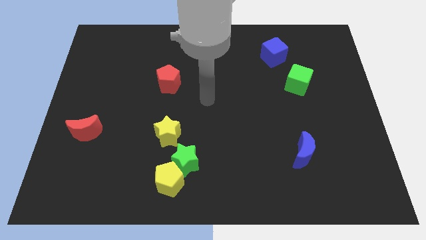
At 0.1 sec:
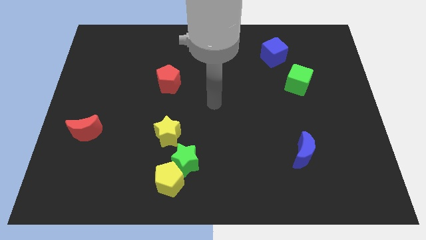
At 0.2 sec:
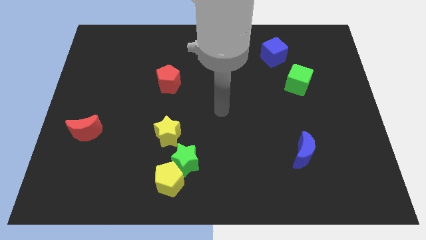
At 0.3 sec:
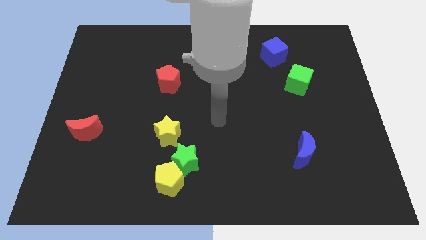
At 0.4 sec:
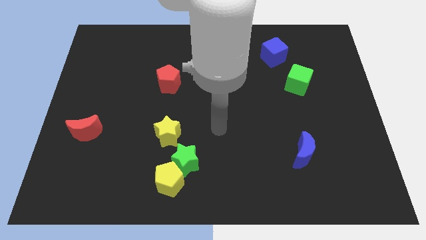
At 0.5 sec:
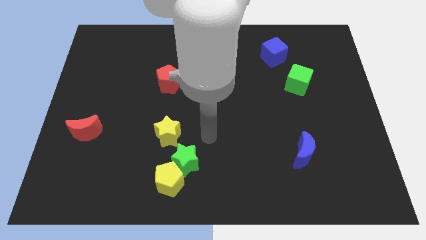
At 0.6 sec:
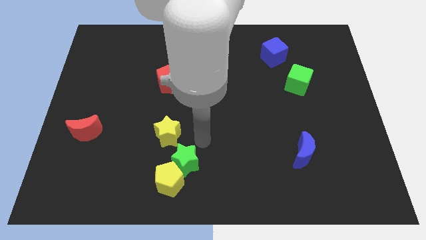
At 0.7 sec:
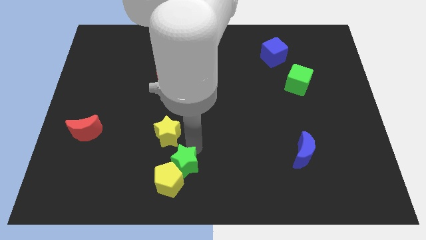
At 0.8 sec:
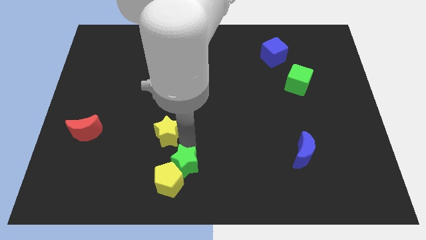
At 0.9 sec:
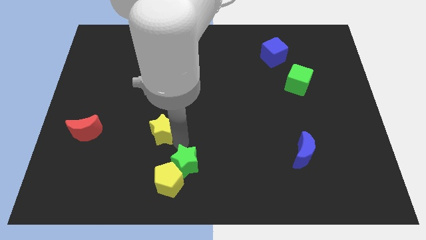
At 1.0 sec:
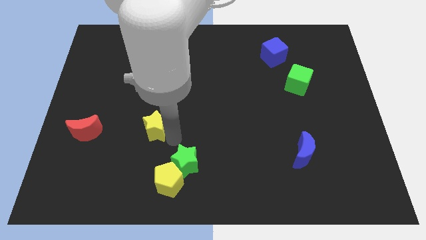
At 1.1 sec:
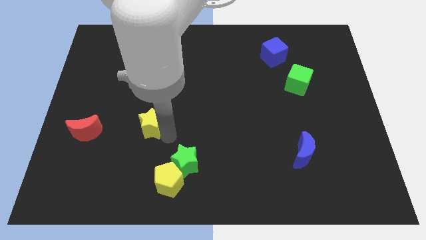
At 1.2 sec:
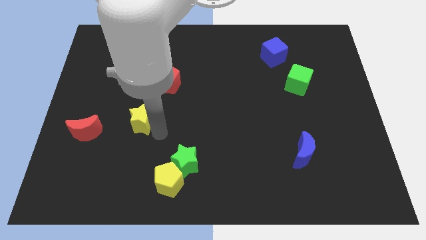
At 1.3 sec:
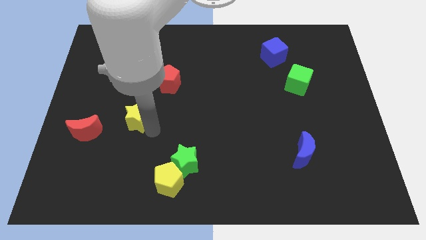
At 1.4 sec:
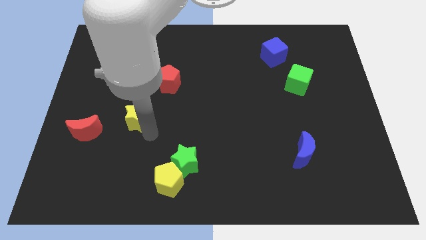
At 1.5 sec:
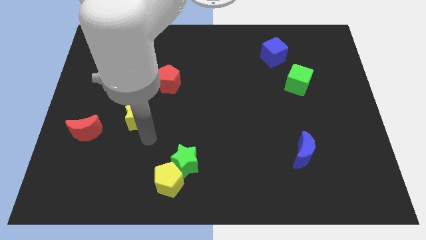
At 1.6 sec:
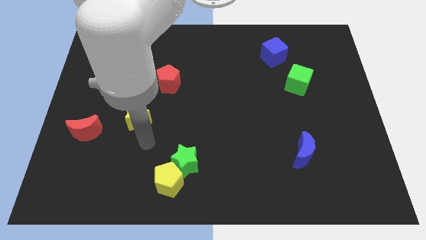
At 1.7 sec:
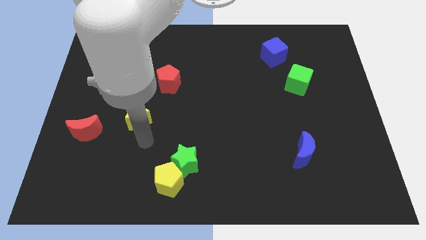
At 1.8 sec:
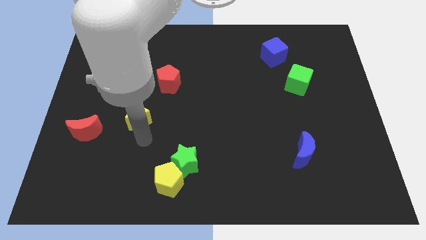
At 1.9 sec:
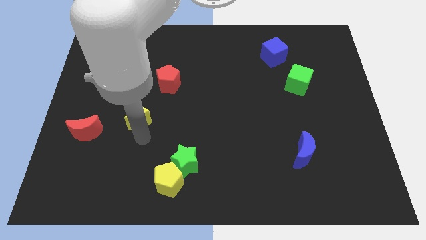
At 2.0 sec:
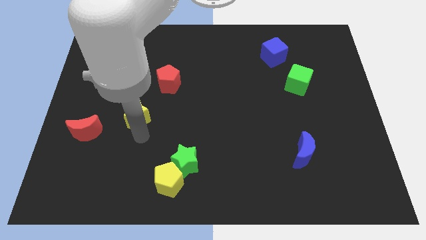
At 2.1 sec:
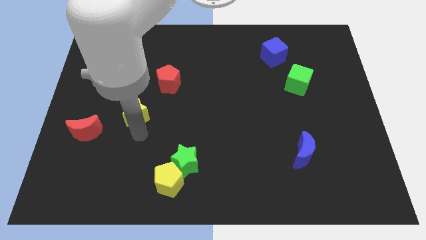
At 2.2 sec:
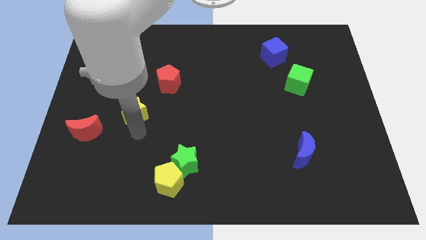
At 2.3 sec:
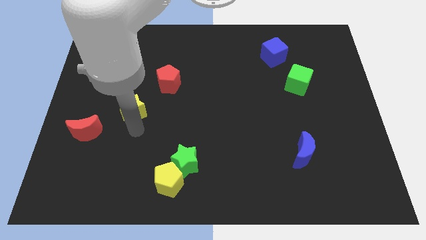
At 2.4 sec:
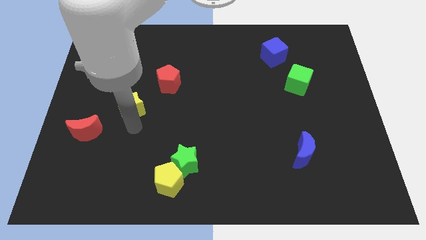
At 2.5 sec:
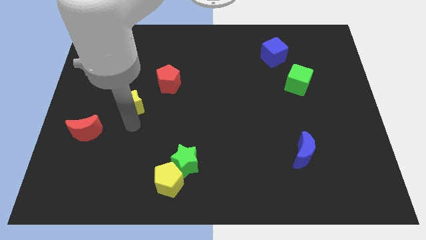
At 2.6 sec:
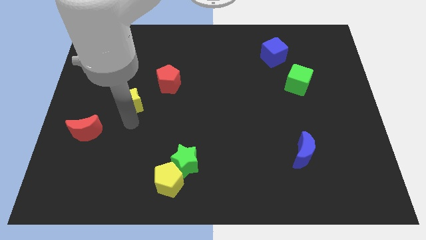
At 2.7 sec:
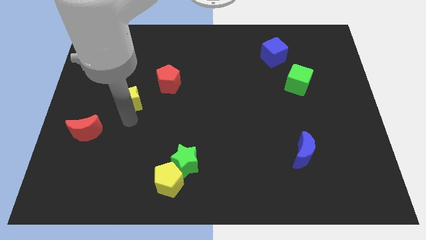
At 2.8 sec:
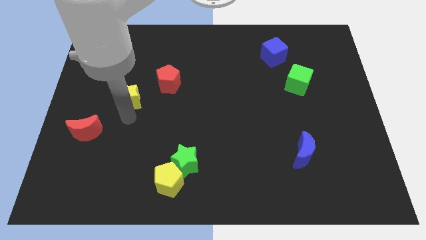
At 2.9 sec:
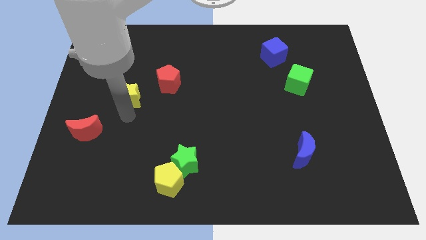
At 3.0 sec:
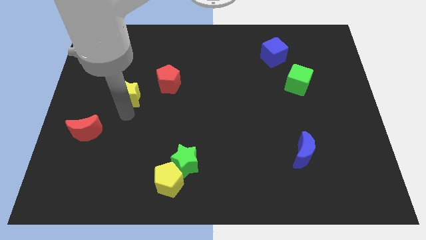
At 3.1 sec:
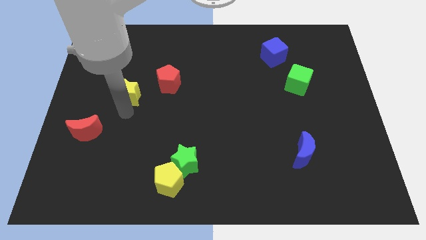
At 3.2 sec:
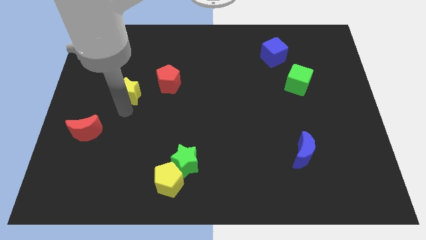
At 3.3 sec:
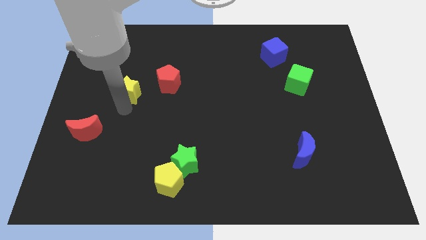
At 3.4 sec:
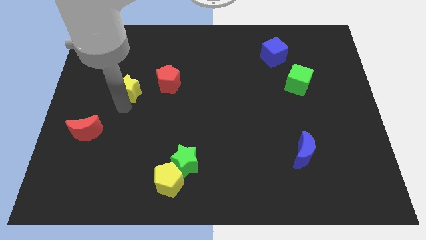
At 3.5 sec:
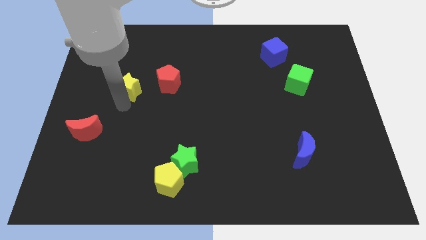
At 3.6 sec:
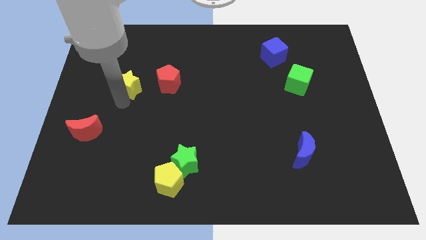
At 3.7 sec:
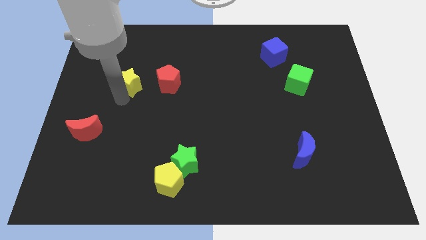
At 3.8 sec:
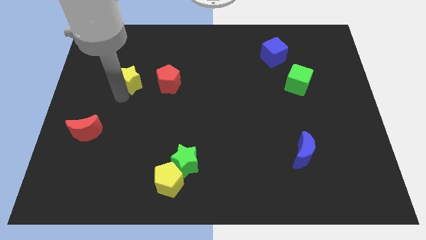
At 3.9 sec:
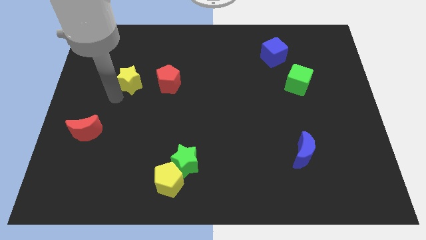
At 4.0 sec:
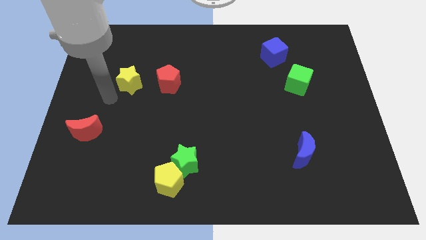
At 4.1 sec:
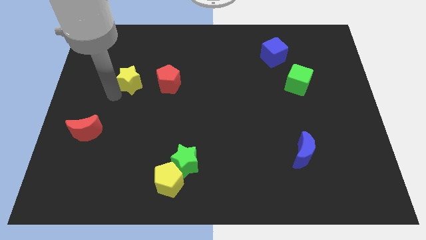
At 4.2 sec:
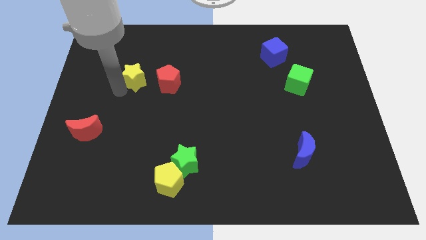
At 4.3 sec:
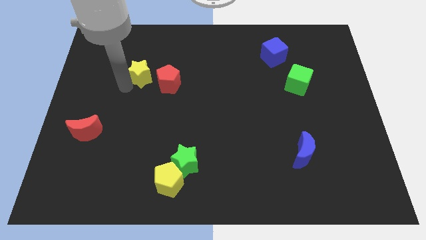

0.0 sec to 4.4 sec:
put the yellow star diagonally up and to the left of the red pentagon

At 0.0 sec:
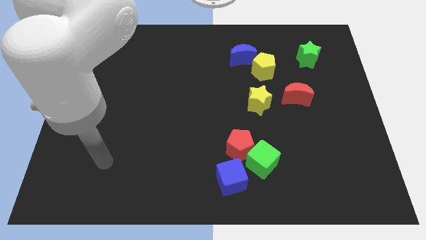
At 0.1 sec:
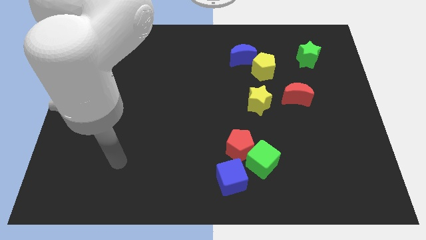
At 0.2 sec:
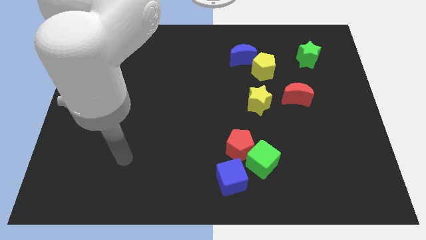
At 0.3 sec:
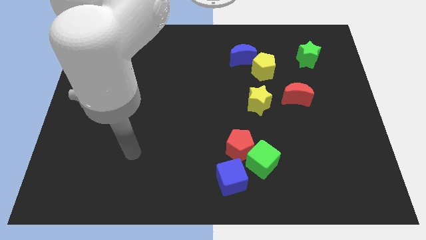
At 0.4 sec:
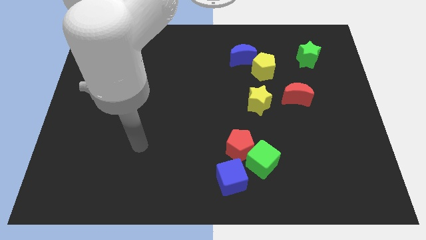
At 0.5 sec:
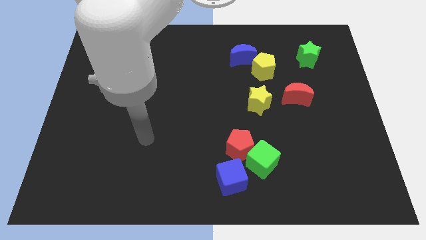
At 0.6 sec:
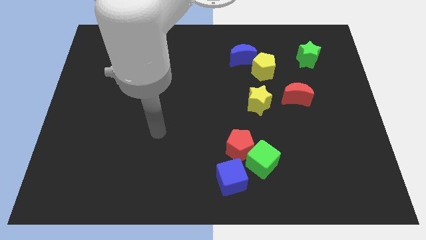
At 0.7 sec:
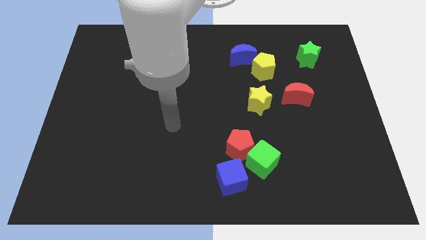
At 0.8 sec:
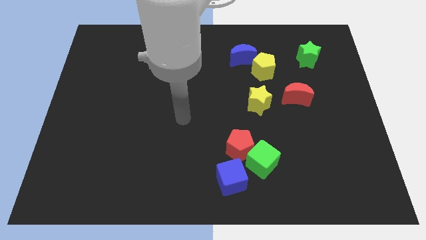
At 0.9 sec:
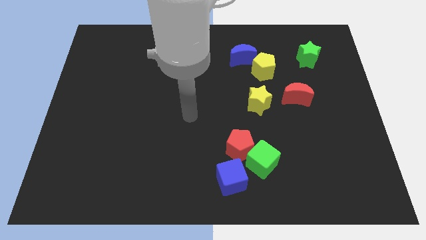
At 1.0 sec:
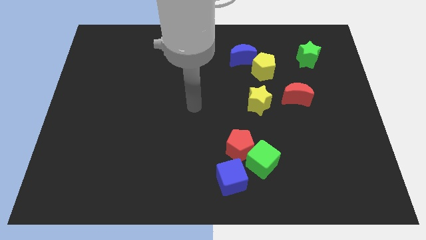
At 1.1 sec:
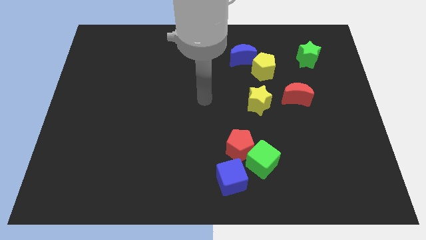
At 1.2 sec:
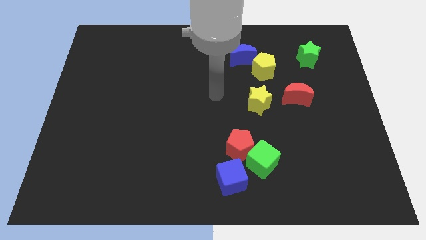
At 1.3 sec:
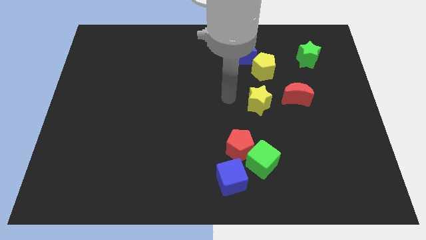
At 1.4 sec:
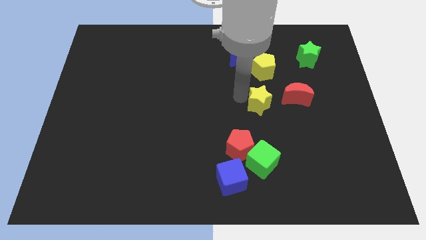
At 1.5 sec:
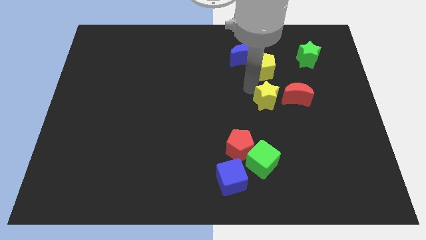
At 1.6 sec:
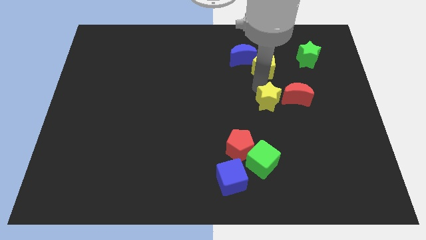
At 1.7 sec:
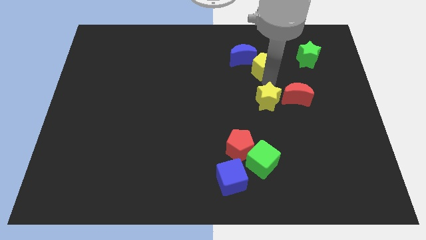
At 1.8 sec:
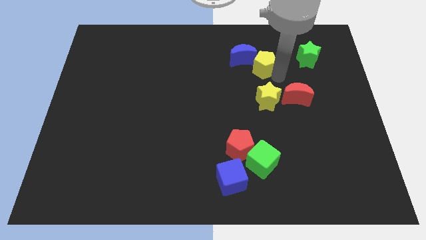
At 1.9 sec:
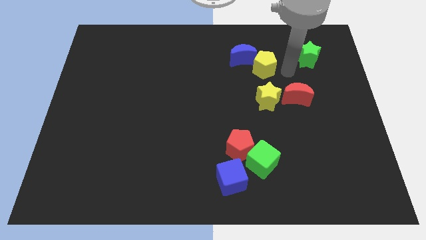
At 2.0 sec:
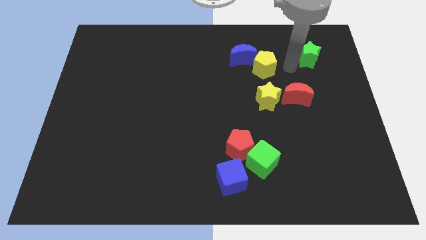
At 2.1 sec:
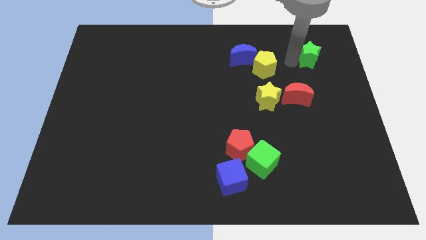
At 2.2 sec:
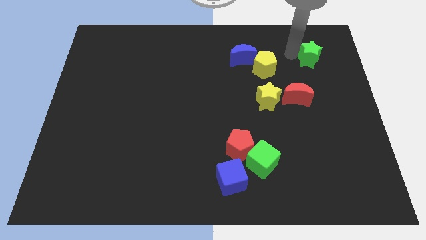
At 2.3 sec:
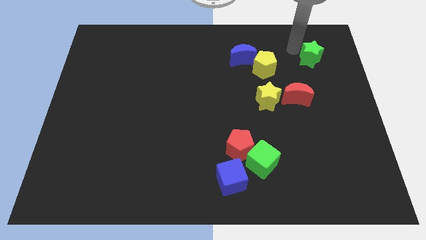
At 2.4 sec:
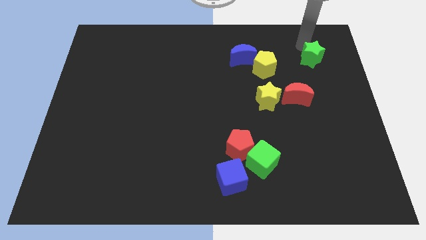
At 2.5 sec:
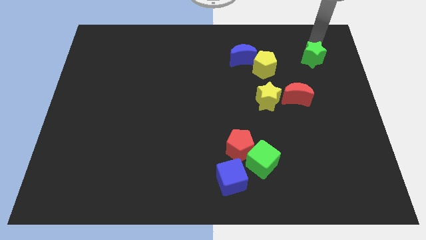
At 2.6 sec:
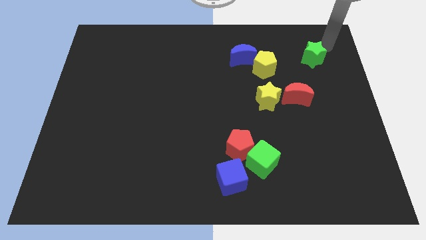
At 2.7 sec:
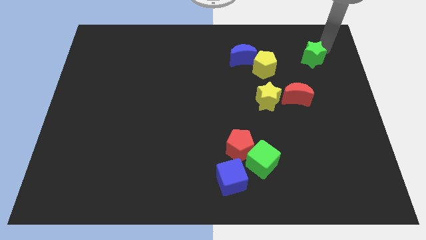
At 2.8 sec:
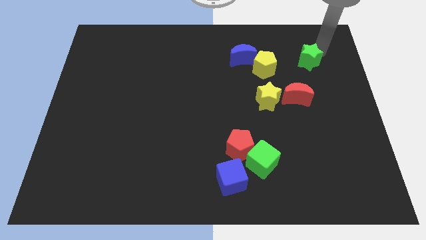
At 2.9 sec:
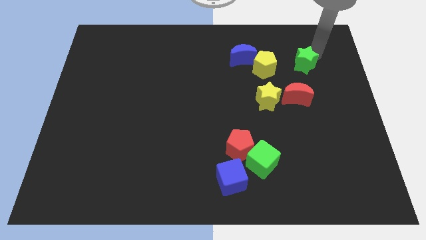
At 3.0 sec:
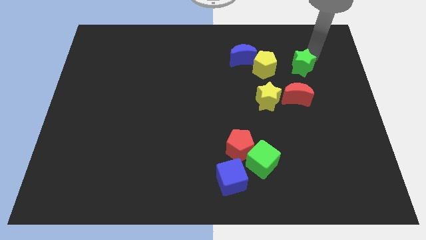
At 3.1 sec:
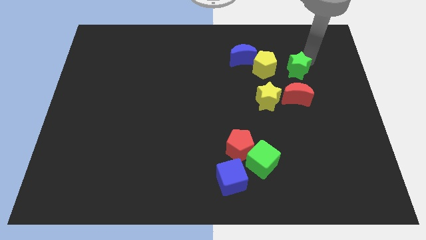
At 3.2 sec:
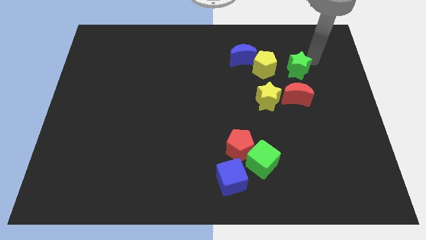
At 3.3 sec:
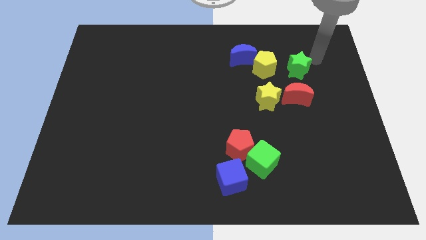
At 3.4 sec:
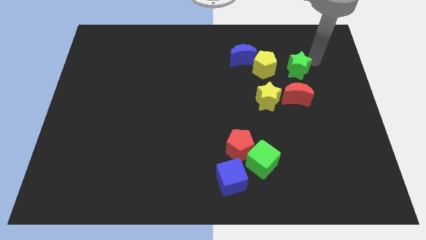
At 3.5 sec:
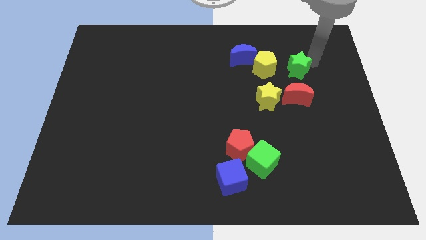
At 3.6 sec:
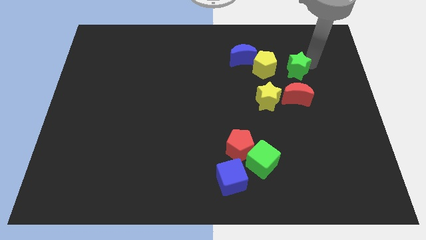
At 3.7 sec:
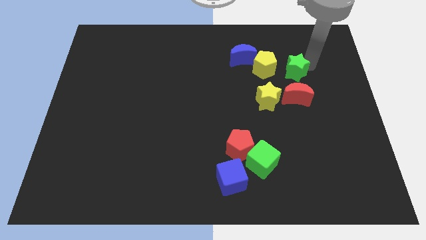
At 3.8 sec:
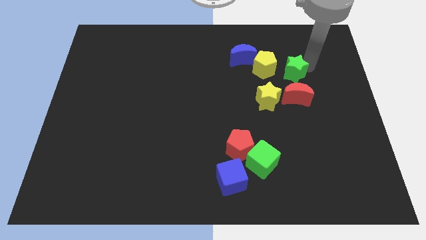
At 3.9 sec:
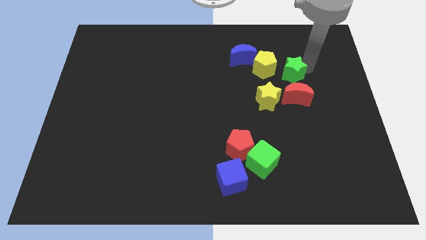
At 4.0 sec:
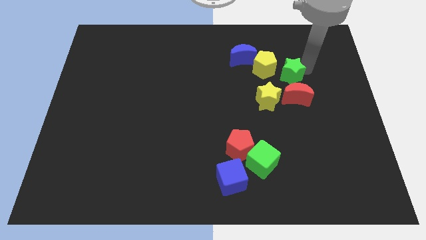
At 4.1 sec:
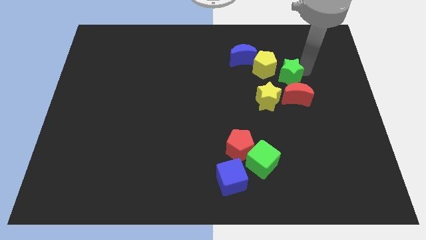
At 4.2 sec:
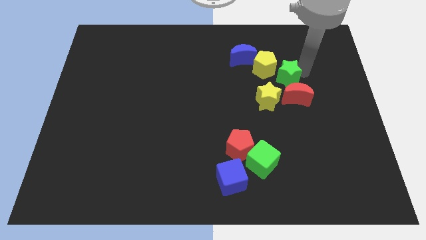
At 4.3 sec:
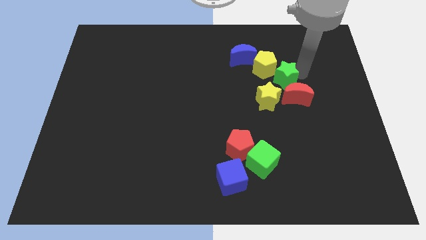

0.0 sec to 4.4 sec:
push the green star diagonally down and to the right of the blue moon

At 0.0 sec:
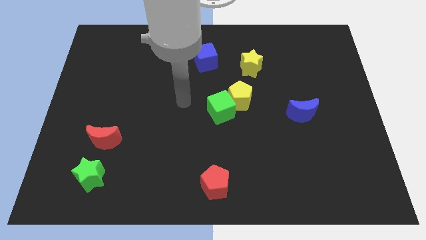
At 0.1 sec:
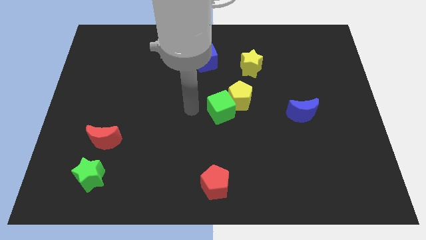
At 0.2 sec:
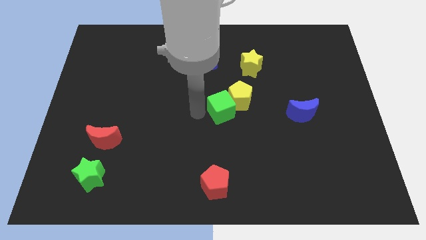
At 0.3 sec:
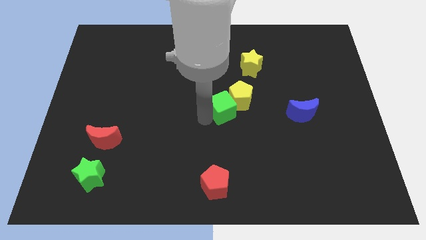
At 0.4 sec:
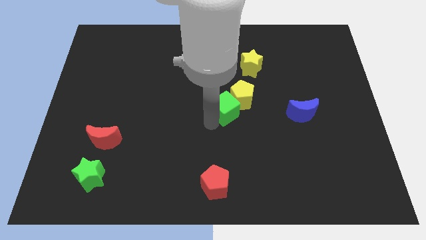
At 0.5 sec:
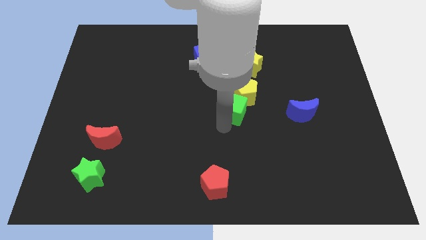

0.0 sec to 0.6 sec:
move the blue moon to the right side of the green cube
